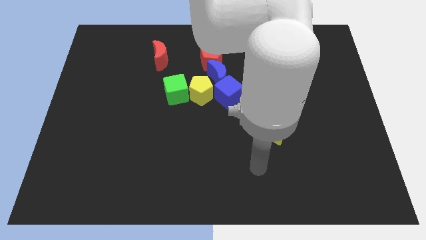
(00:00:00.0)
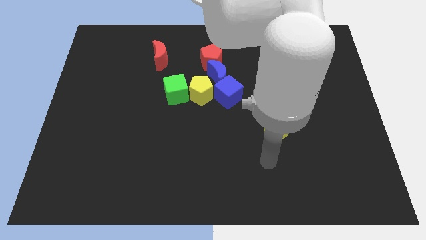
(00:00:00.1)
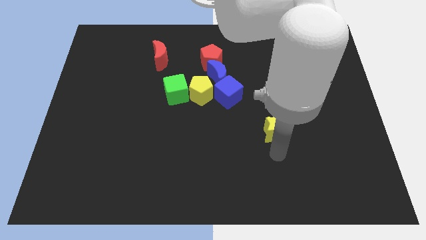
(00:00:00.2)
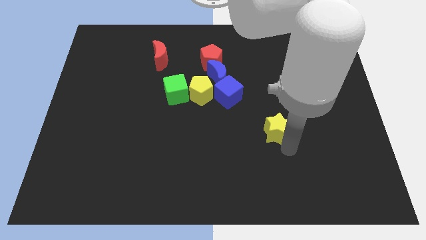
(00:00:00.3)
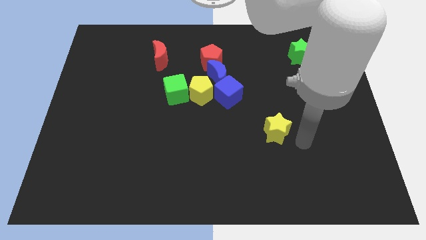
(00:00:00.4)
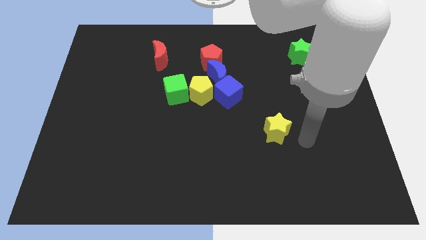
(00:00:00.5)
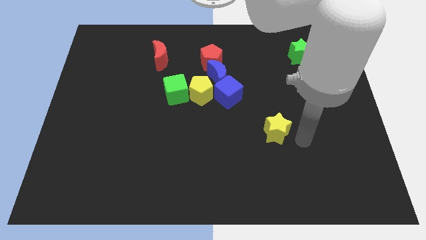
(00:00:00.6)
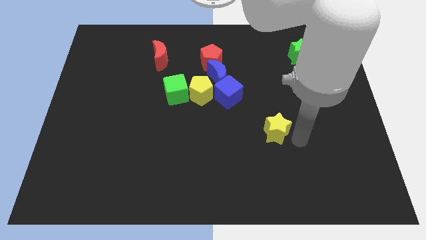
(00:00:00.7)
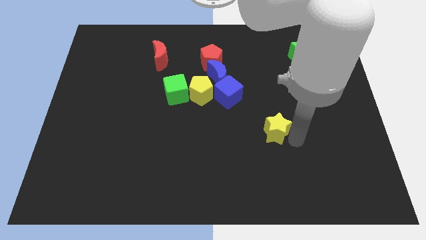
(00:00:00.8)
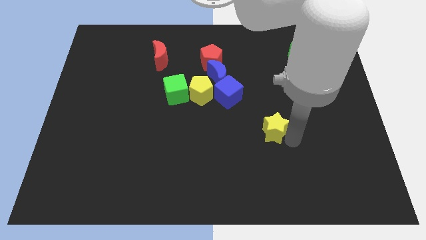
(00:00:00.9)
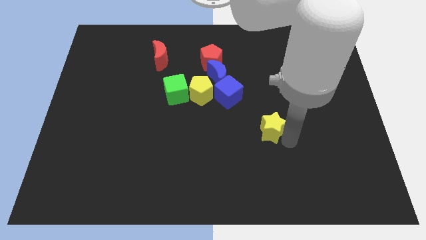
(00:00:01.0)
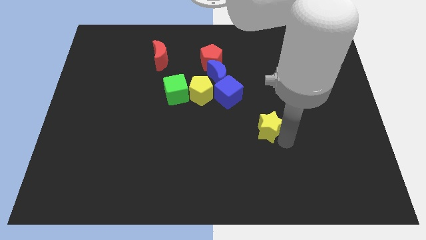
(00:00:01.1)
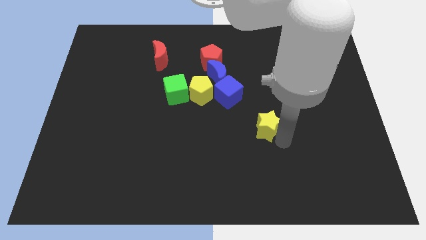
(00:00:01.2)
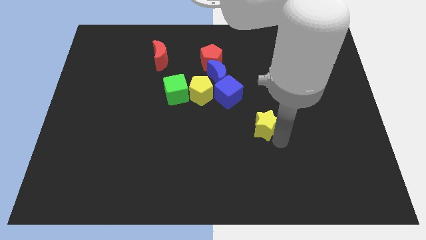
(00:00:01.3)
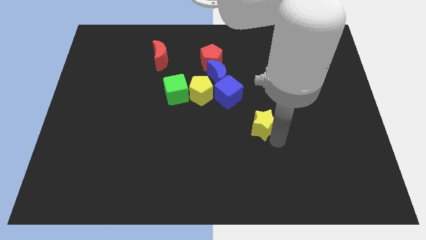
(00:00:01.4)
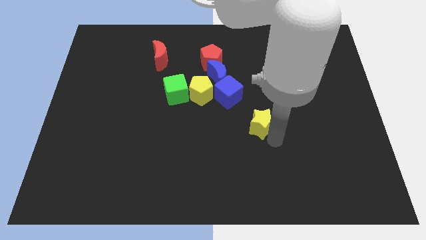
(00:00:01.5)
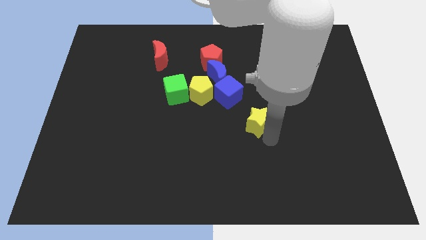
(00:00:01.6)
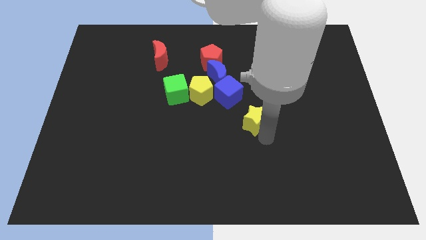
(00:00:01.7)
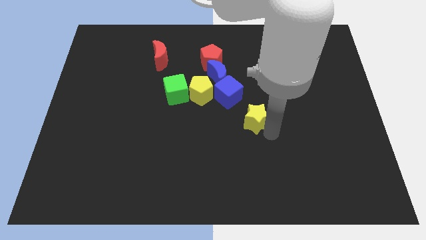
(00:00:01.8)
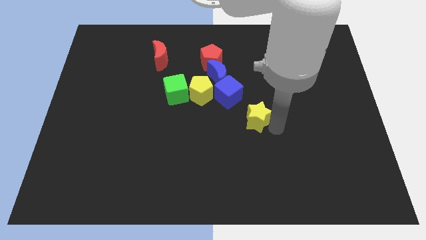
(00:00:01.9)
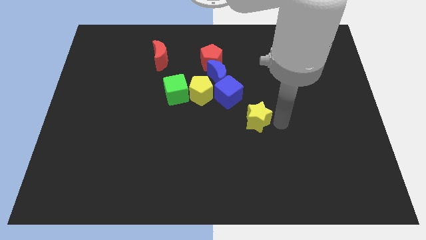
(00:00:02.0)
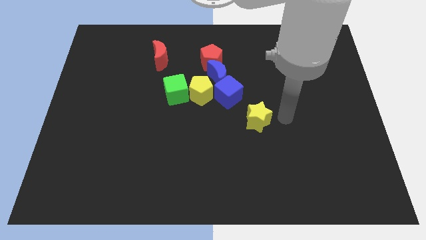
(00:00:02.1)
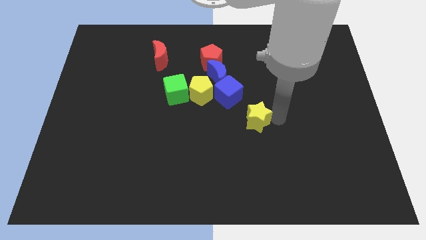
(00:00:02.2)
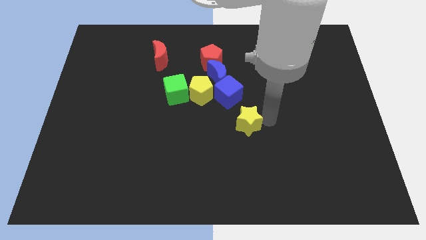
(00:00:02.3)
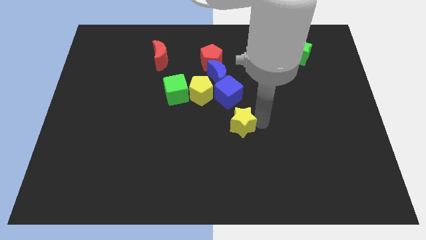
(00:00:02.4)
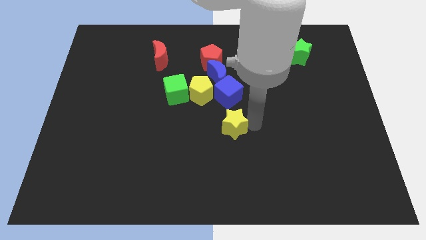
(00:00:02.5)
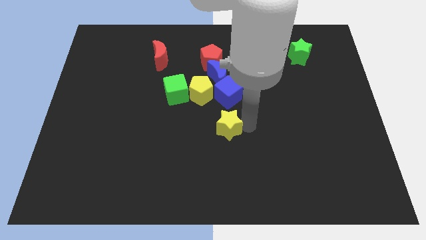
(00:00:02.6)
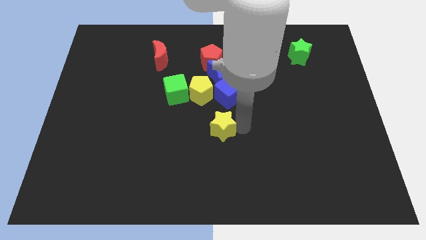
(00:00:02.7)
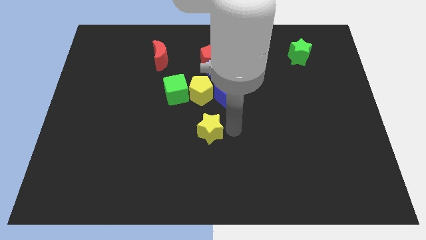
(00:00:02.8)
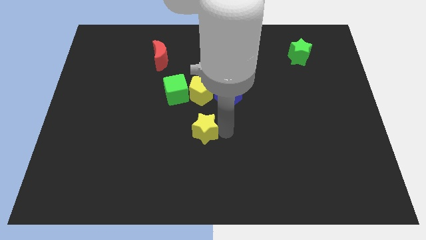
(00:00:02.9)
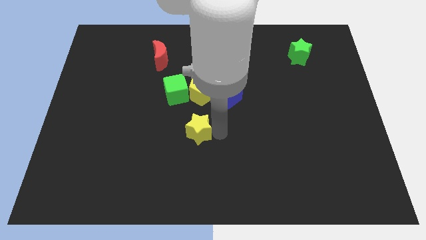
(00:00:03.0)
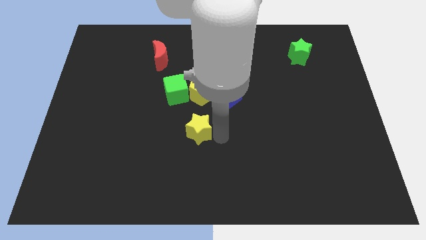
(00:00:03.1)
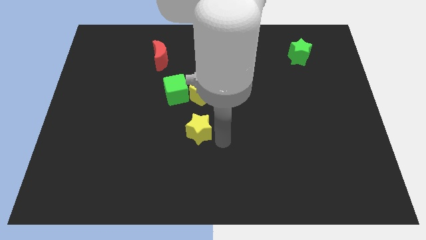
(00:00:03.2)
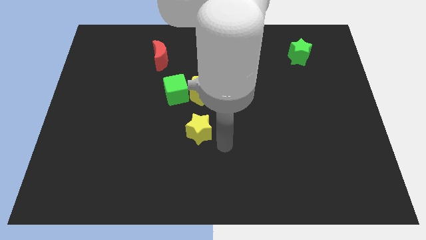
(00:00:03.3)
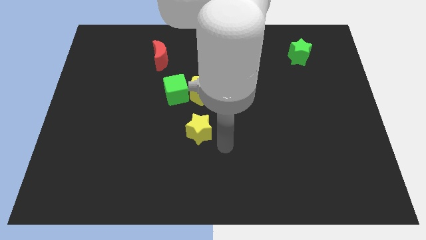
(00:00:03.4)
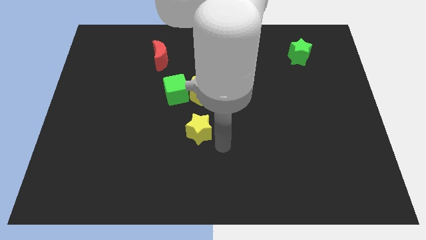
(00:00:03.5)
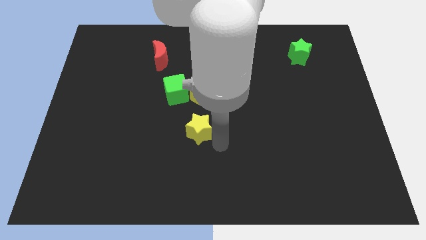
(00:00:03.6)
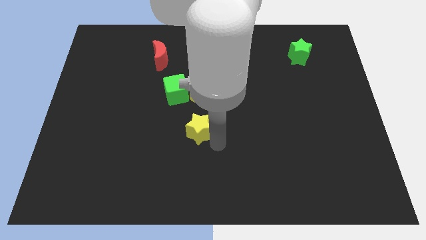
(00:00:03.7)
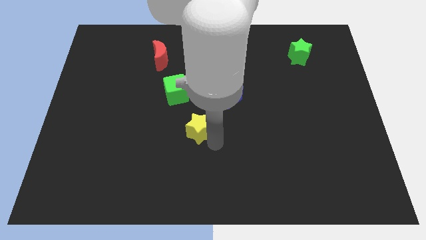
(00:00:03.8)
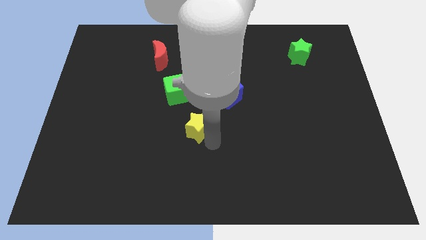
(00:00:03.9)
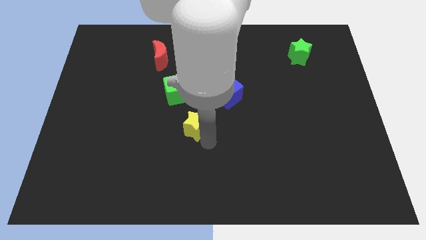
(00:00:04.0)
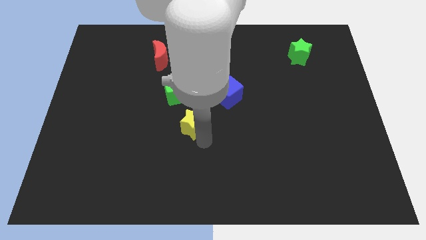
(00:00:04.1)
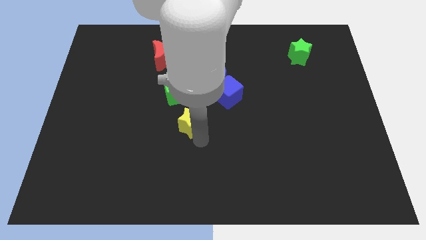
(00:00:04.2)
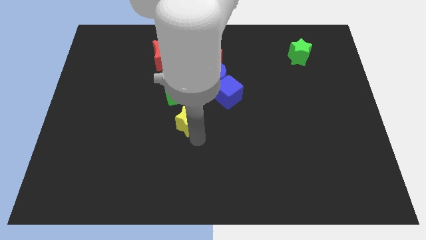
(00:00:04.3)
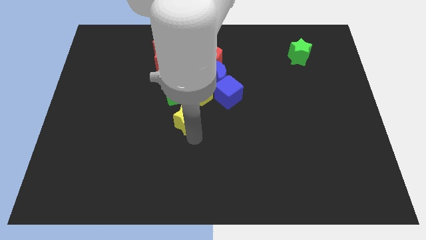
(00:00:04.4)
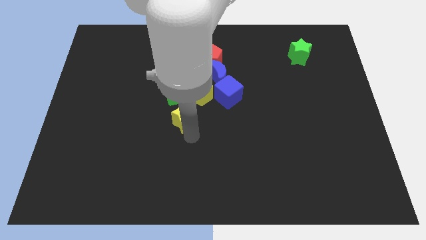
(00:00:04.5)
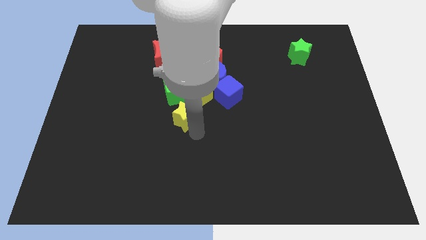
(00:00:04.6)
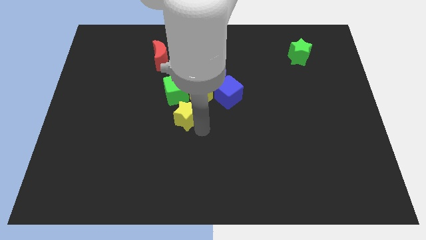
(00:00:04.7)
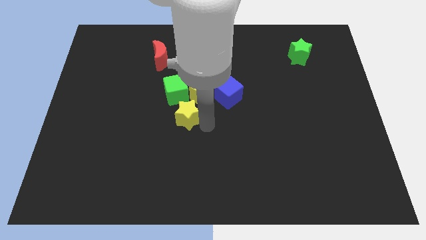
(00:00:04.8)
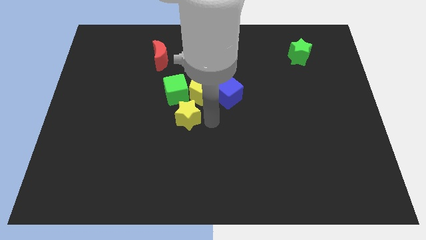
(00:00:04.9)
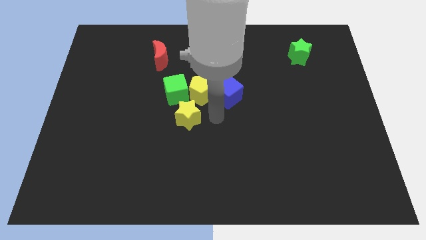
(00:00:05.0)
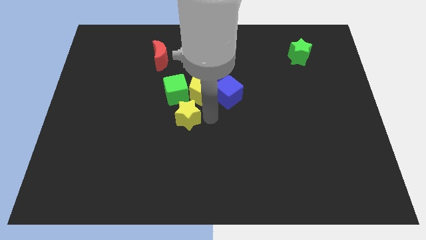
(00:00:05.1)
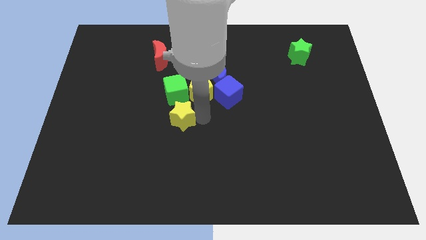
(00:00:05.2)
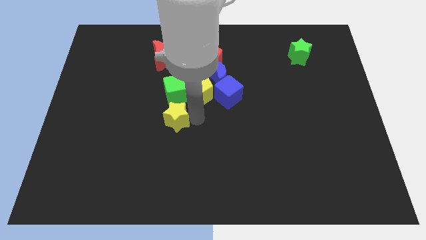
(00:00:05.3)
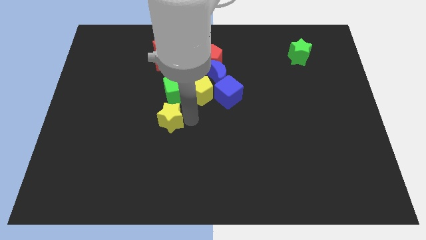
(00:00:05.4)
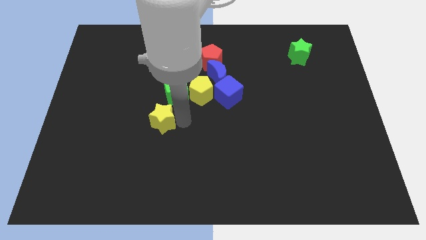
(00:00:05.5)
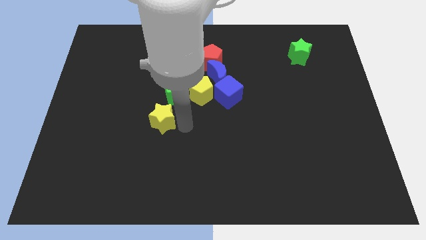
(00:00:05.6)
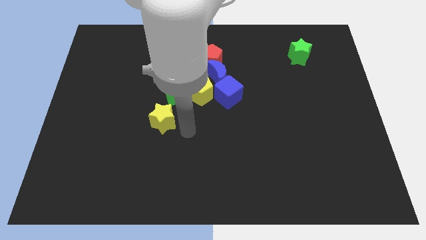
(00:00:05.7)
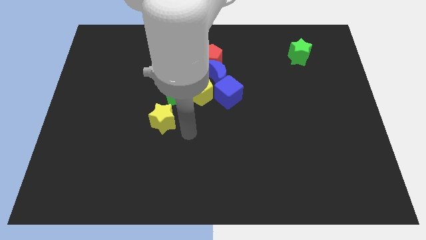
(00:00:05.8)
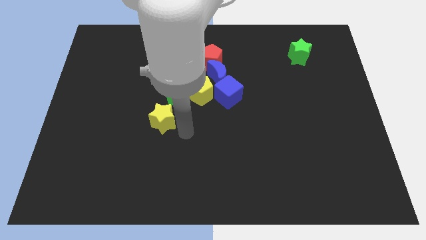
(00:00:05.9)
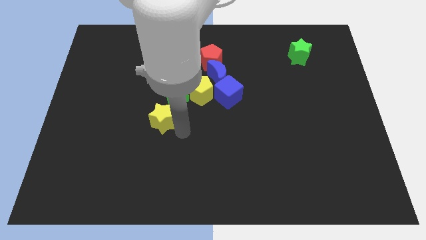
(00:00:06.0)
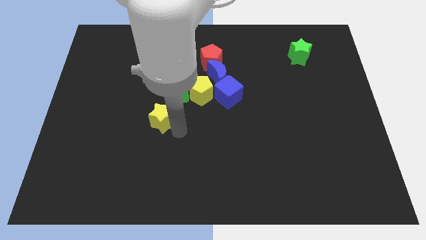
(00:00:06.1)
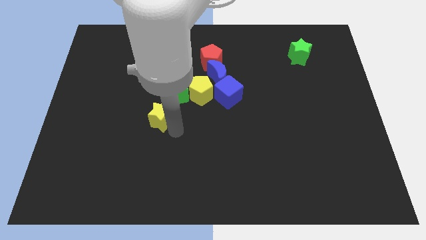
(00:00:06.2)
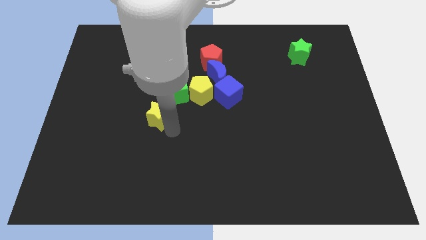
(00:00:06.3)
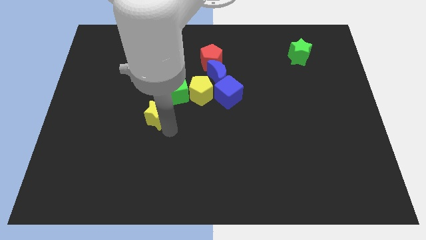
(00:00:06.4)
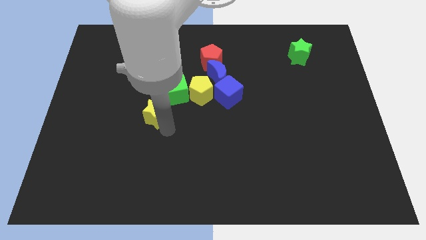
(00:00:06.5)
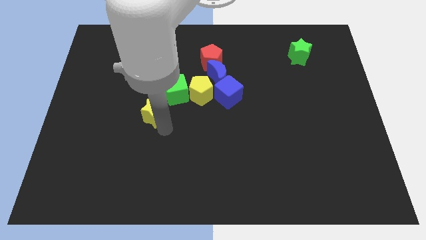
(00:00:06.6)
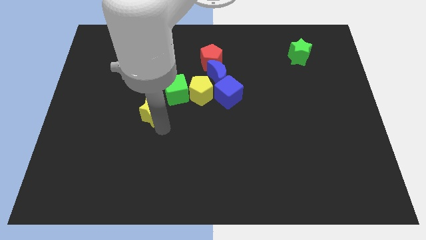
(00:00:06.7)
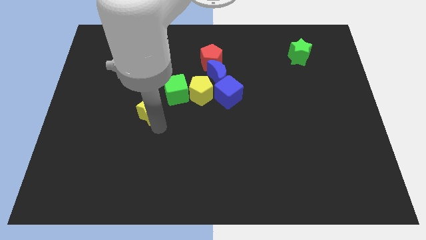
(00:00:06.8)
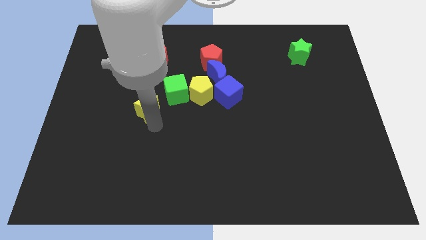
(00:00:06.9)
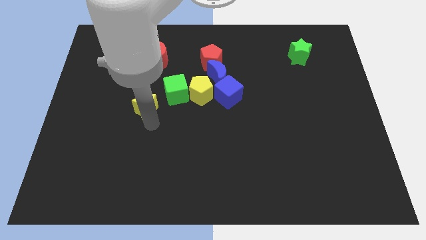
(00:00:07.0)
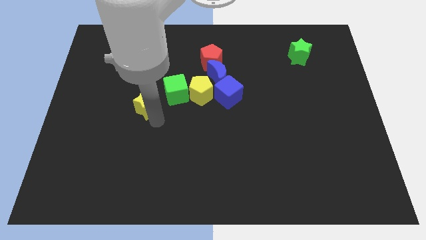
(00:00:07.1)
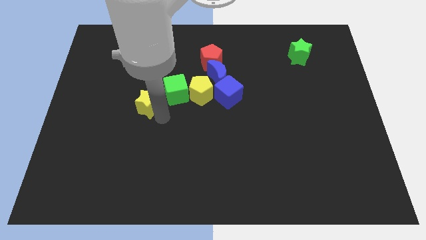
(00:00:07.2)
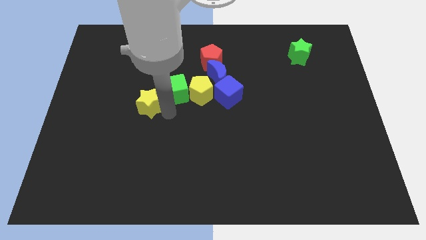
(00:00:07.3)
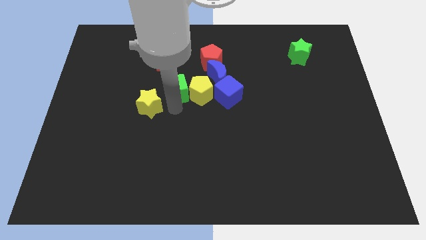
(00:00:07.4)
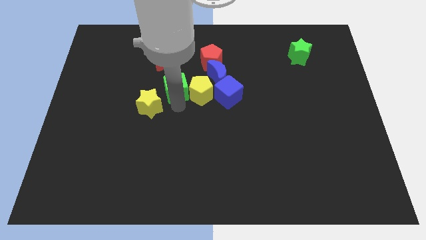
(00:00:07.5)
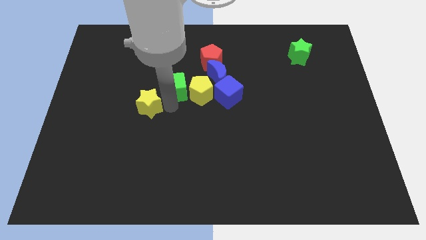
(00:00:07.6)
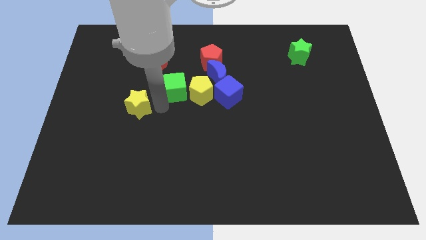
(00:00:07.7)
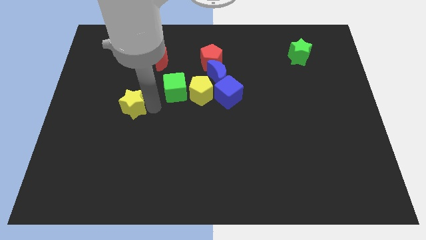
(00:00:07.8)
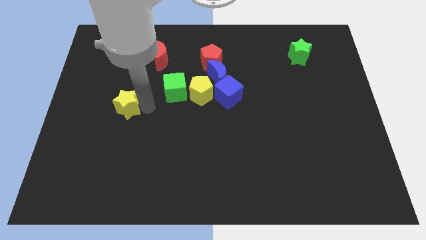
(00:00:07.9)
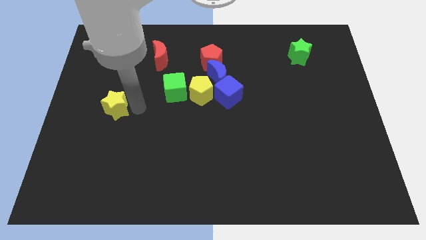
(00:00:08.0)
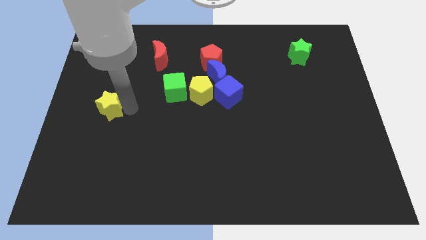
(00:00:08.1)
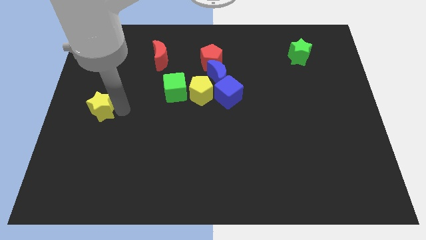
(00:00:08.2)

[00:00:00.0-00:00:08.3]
slide the yellow star to the left side
